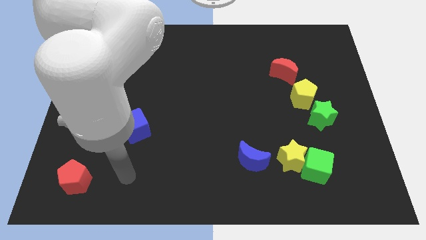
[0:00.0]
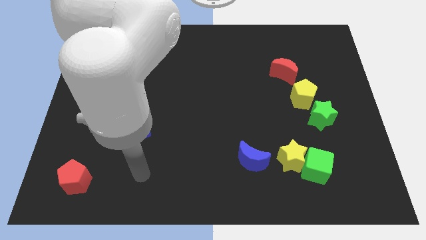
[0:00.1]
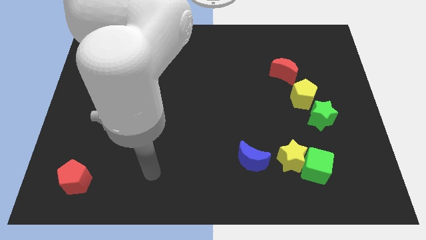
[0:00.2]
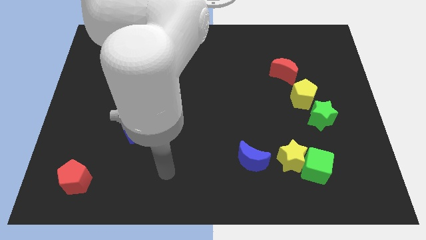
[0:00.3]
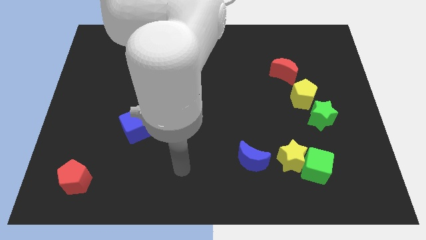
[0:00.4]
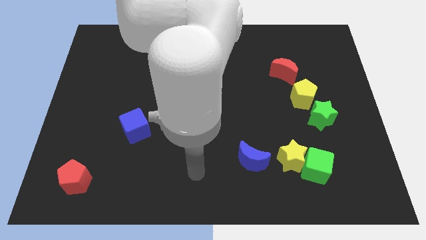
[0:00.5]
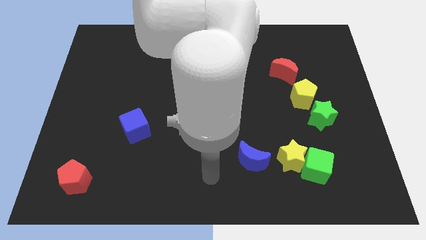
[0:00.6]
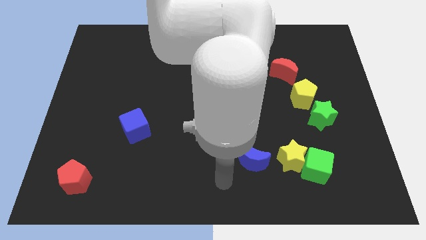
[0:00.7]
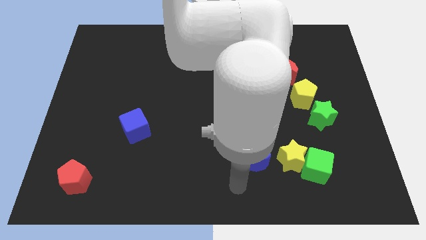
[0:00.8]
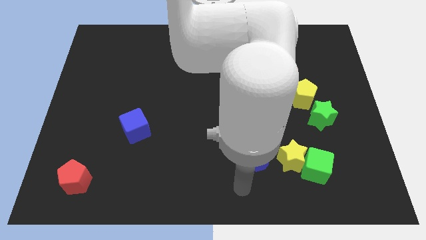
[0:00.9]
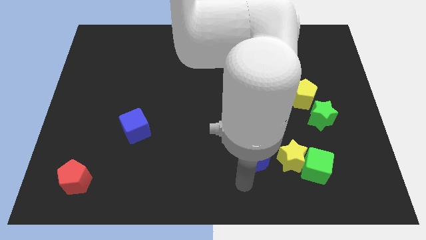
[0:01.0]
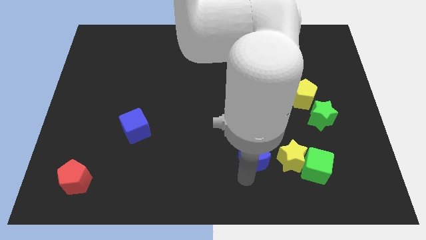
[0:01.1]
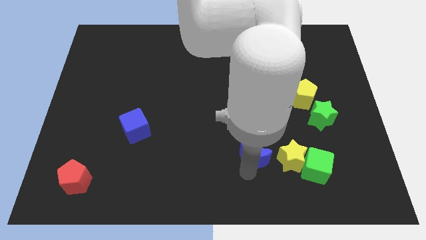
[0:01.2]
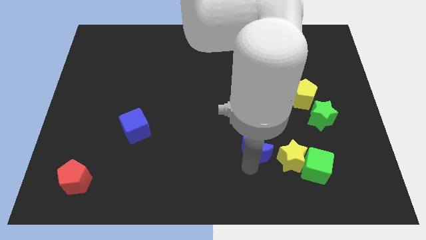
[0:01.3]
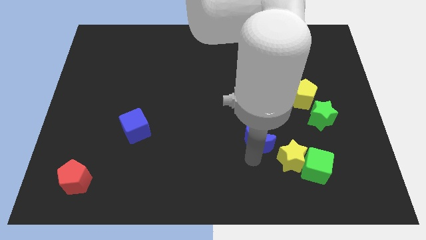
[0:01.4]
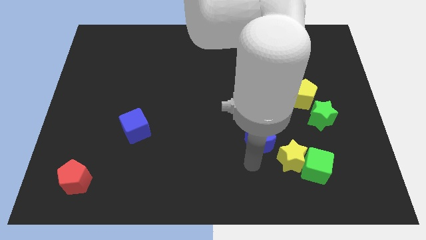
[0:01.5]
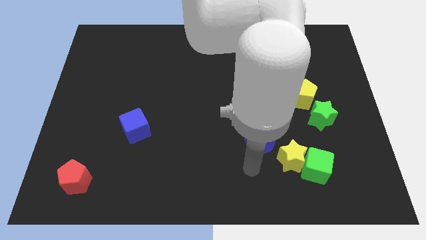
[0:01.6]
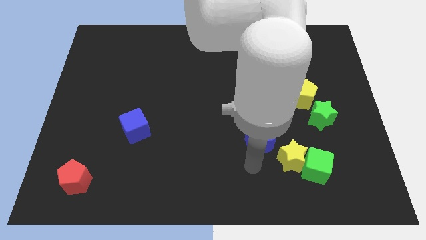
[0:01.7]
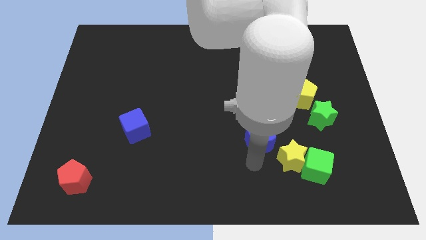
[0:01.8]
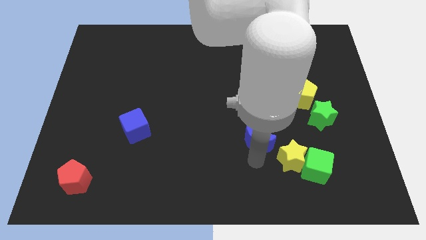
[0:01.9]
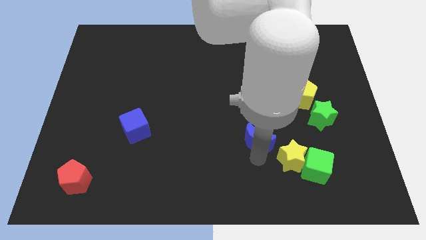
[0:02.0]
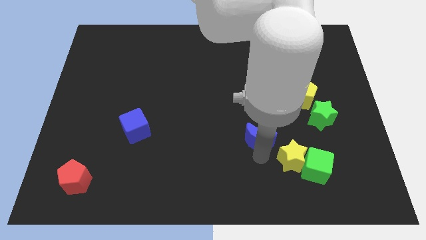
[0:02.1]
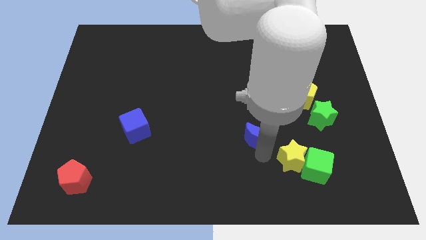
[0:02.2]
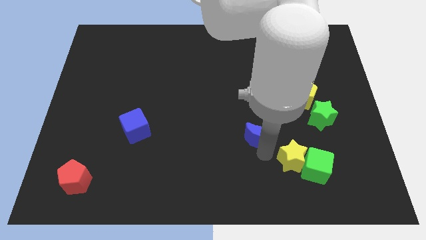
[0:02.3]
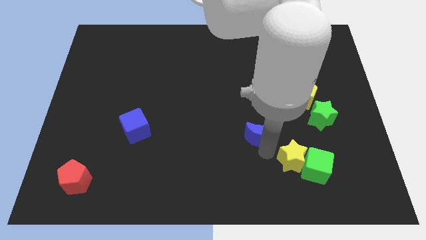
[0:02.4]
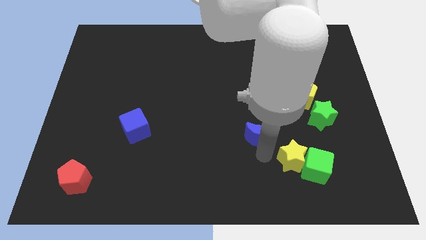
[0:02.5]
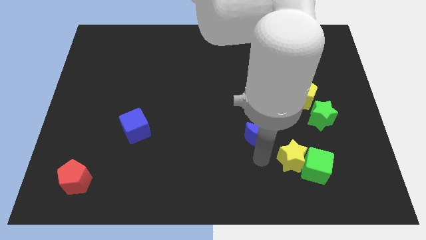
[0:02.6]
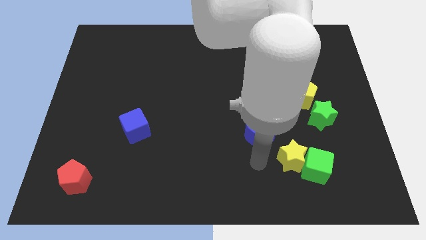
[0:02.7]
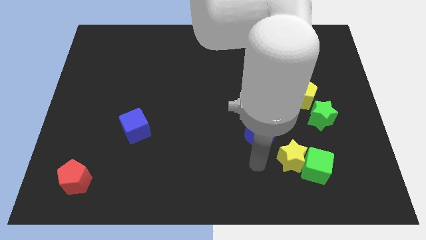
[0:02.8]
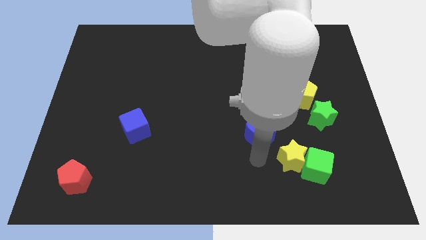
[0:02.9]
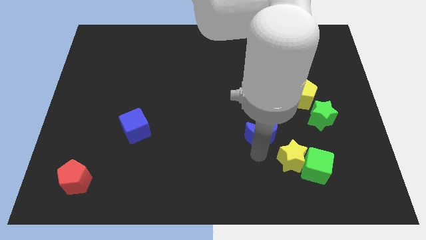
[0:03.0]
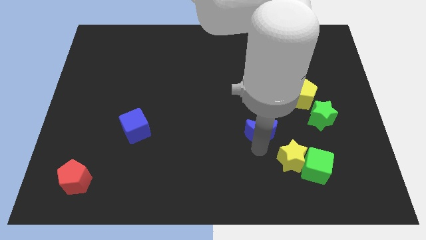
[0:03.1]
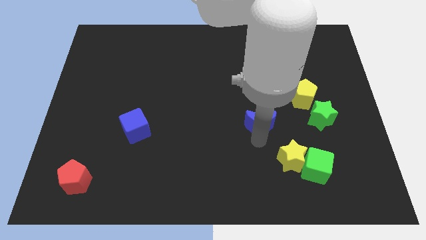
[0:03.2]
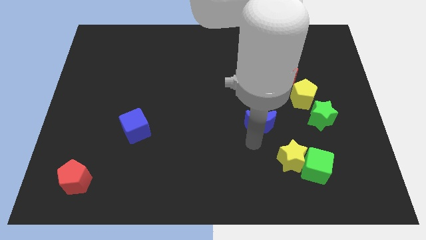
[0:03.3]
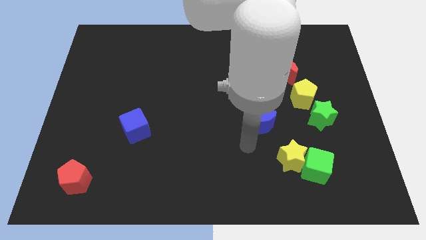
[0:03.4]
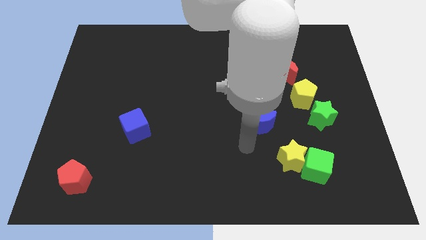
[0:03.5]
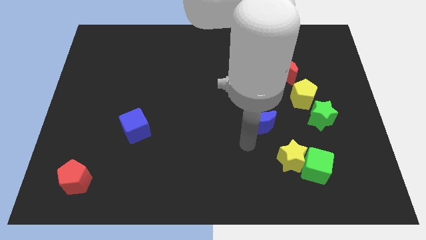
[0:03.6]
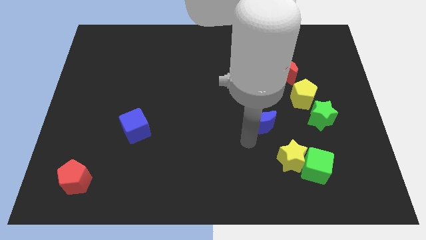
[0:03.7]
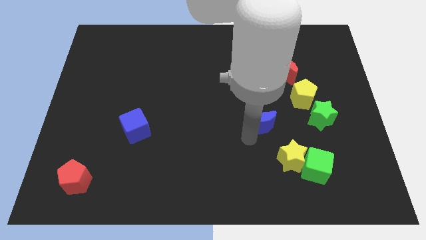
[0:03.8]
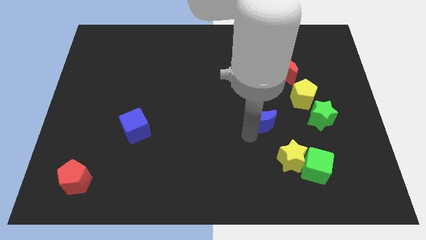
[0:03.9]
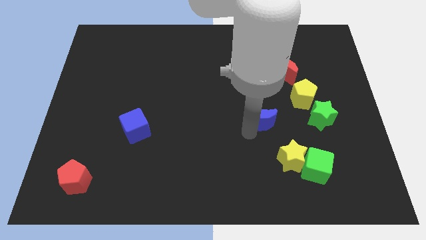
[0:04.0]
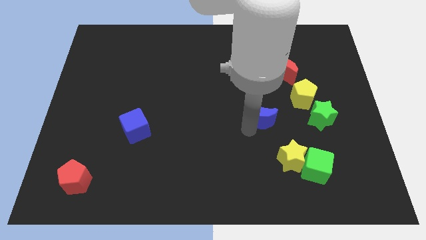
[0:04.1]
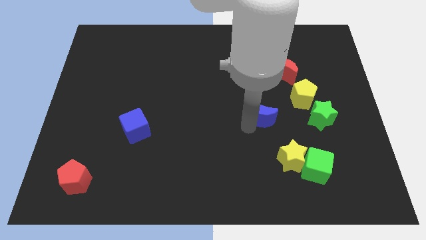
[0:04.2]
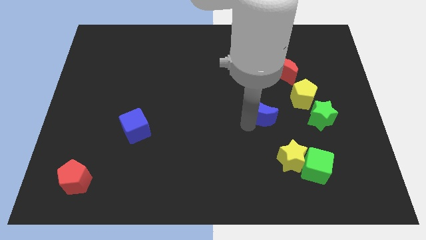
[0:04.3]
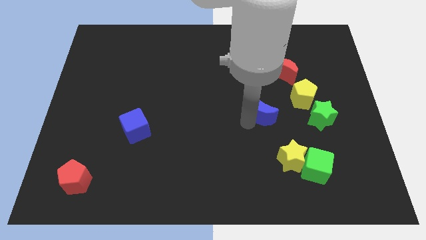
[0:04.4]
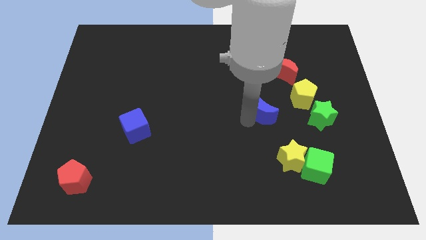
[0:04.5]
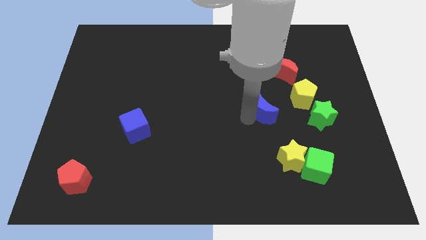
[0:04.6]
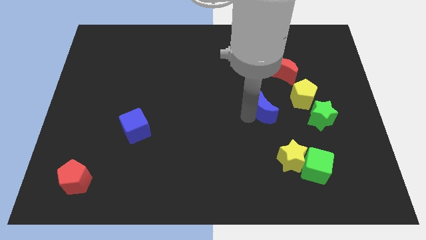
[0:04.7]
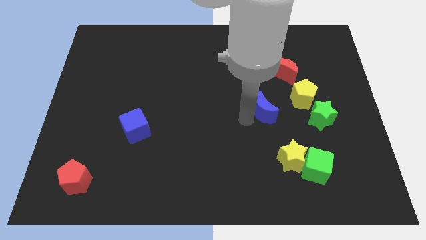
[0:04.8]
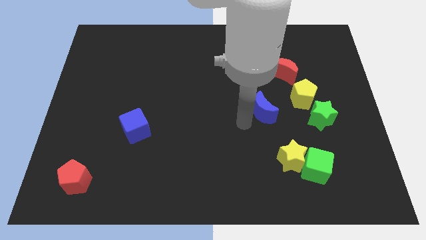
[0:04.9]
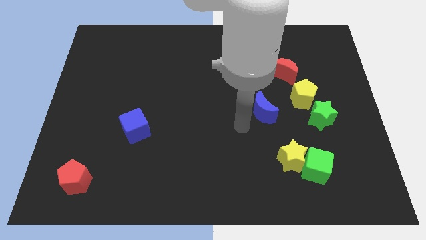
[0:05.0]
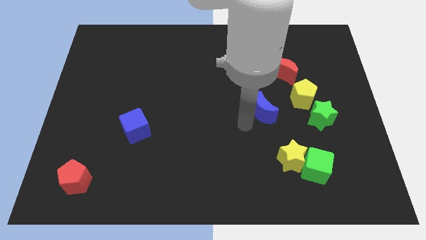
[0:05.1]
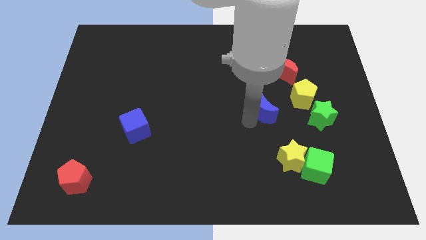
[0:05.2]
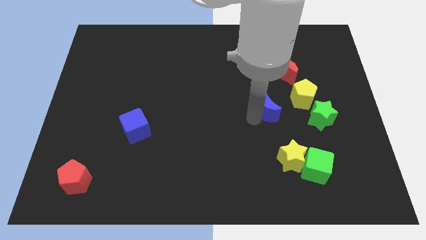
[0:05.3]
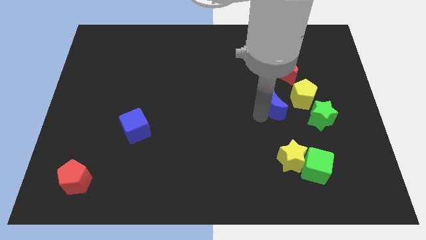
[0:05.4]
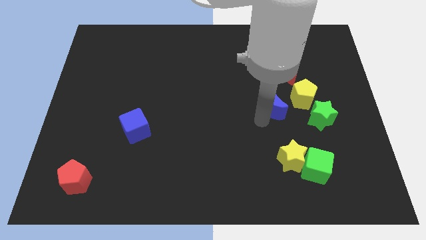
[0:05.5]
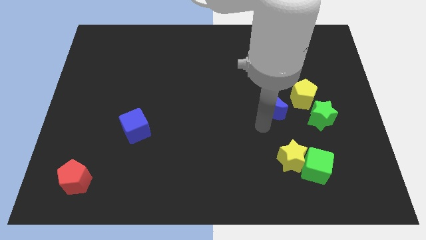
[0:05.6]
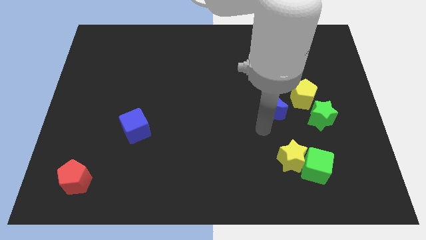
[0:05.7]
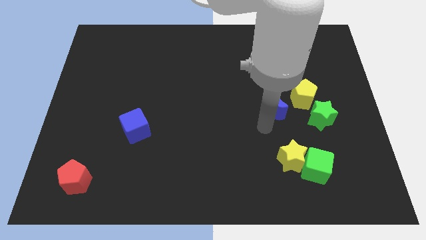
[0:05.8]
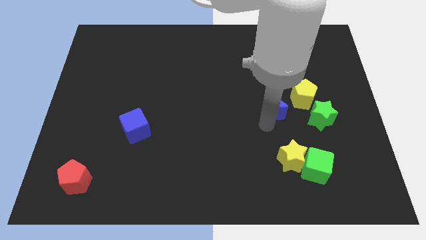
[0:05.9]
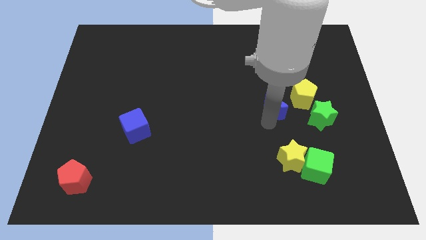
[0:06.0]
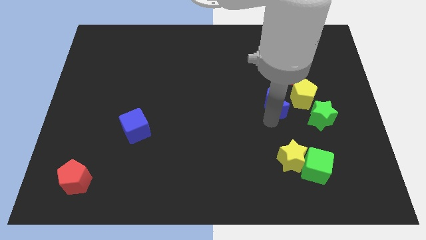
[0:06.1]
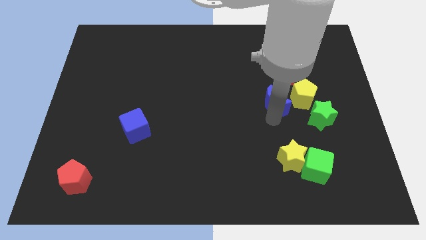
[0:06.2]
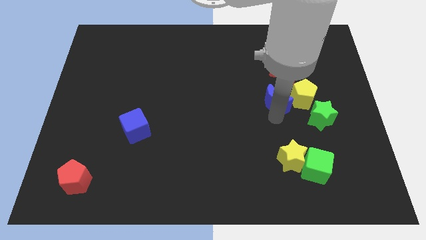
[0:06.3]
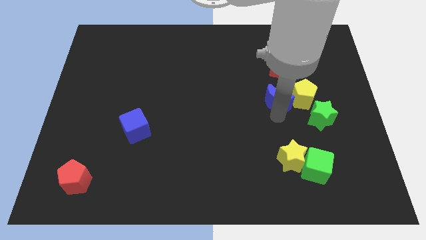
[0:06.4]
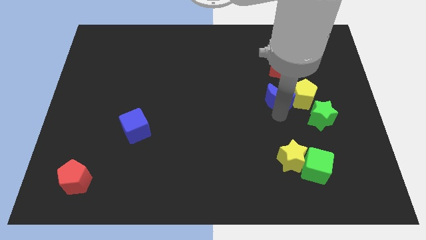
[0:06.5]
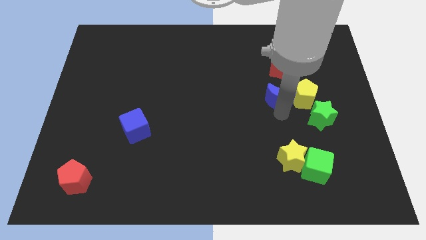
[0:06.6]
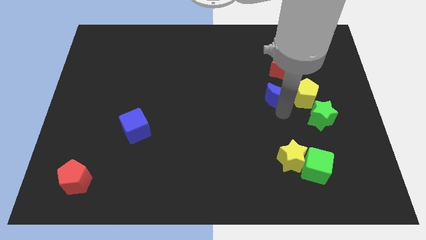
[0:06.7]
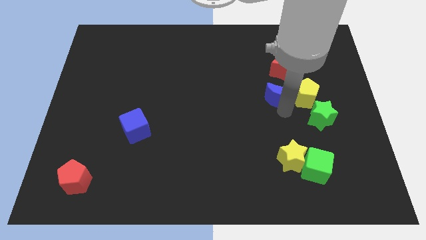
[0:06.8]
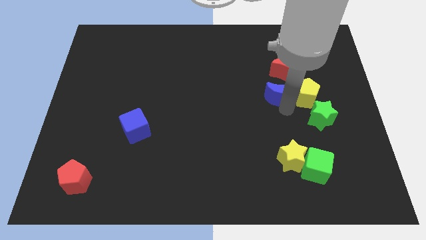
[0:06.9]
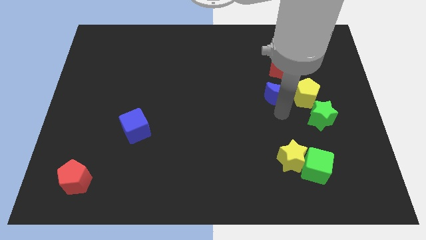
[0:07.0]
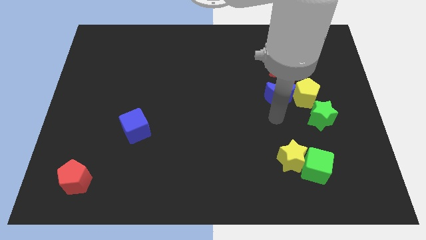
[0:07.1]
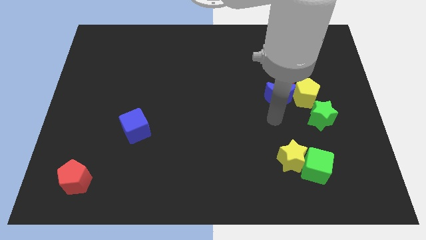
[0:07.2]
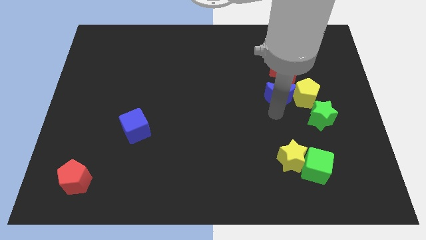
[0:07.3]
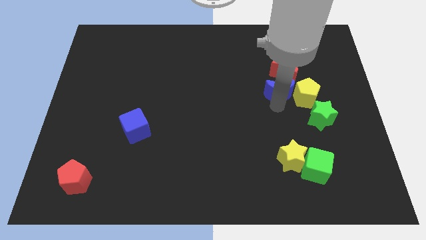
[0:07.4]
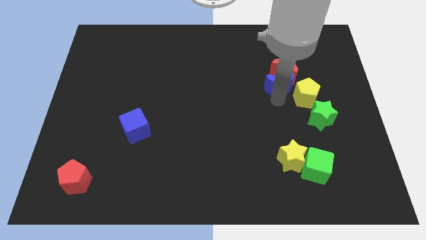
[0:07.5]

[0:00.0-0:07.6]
push the blue moon close to the red moon

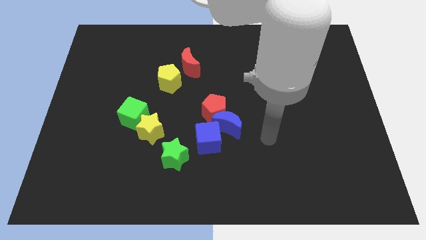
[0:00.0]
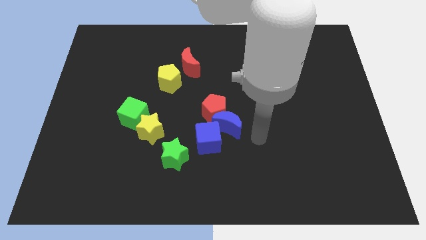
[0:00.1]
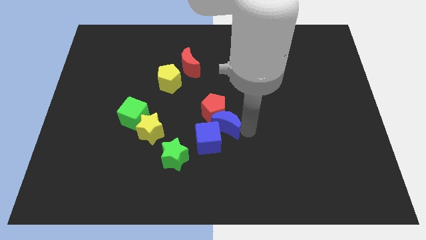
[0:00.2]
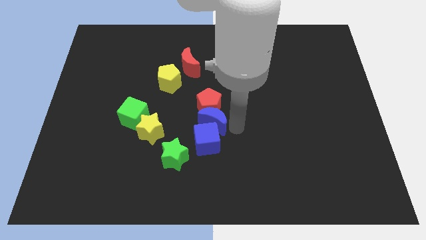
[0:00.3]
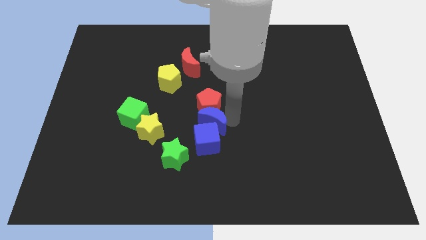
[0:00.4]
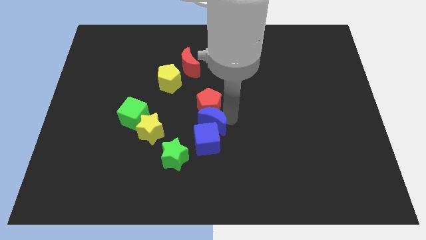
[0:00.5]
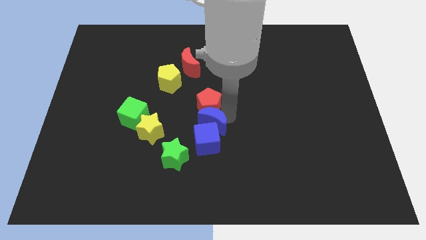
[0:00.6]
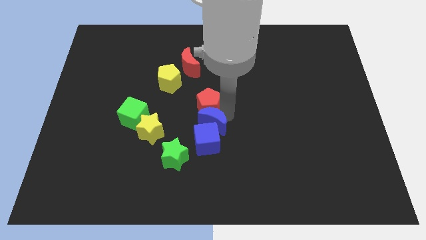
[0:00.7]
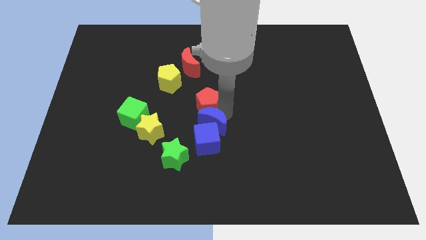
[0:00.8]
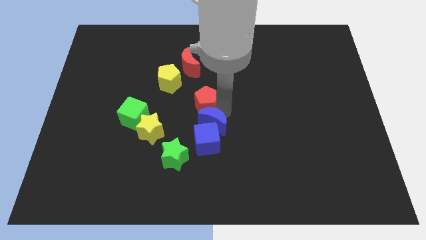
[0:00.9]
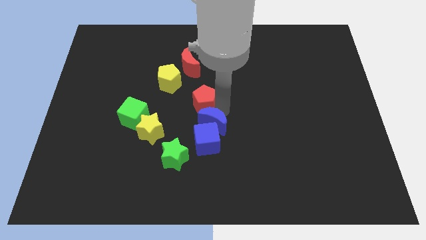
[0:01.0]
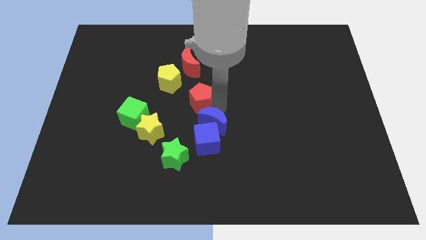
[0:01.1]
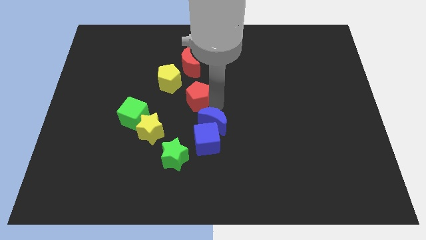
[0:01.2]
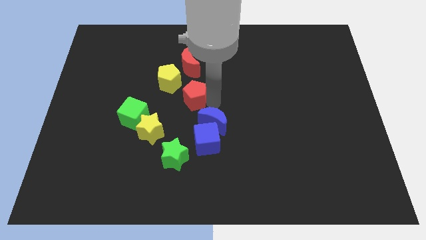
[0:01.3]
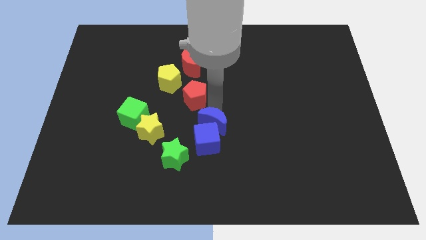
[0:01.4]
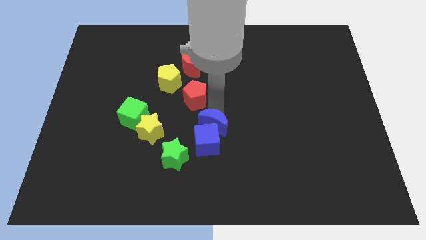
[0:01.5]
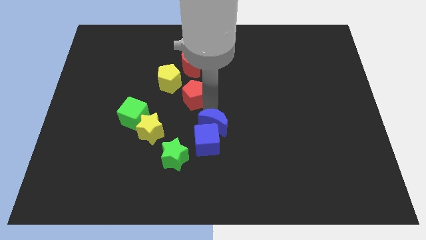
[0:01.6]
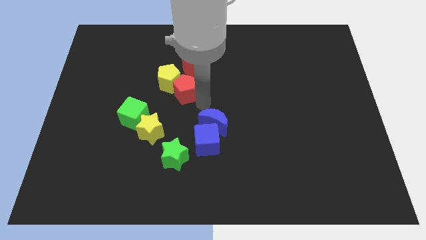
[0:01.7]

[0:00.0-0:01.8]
move the red pentagon towards the yellow pentagon
